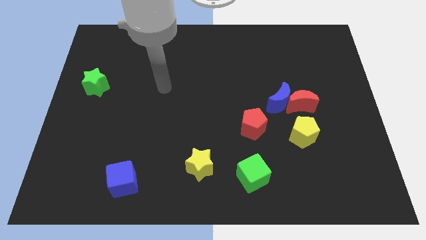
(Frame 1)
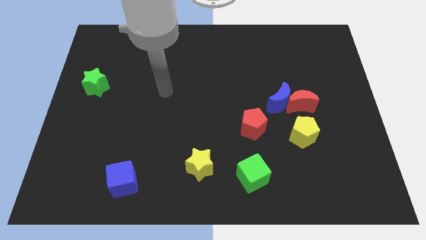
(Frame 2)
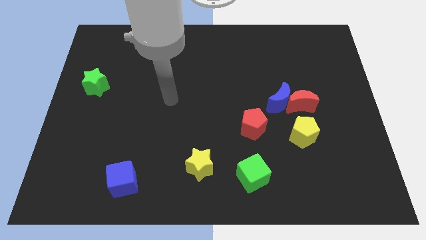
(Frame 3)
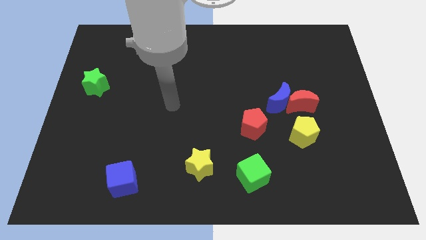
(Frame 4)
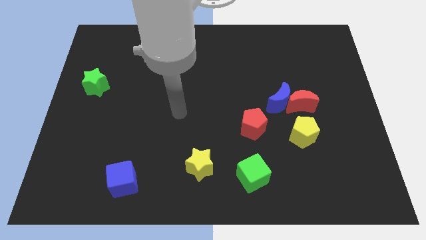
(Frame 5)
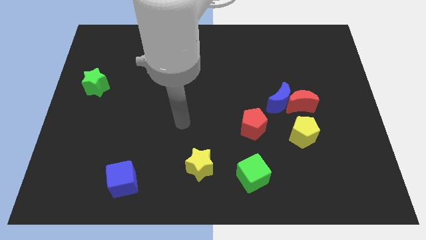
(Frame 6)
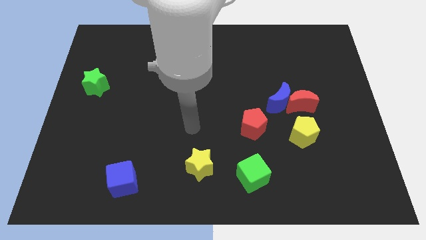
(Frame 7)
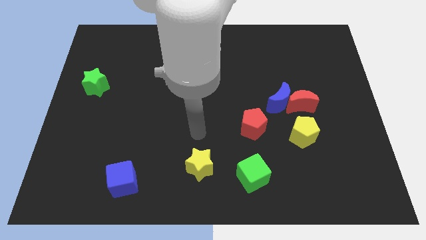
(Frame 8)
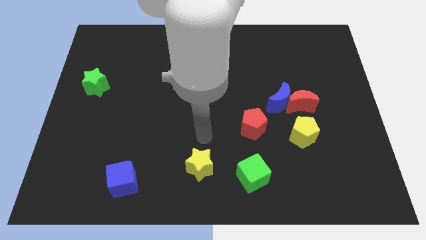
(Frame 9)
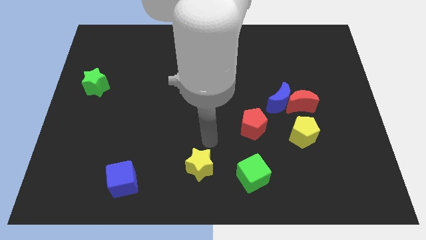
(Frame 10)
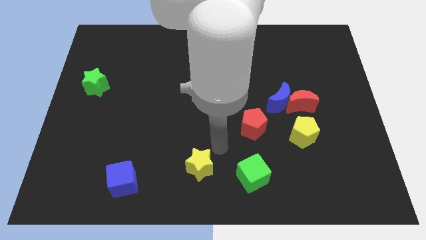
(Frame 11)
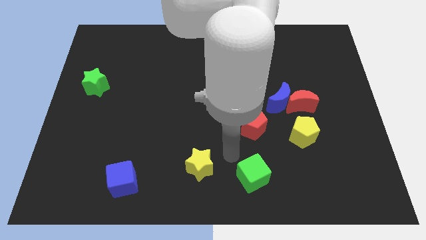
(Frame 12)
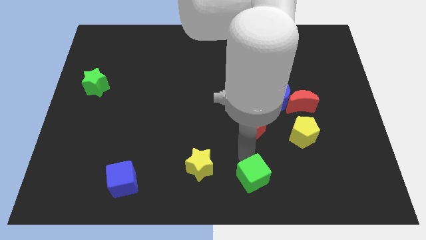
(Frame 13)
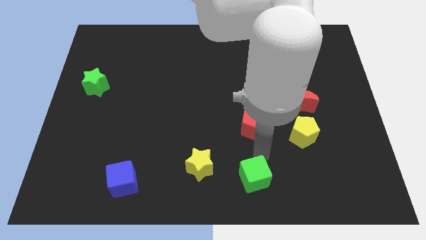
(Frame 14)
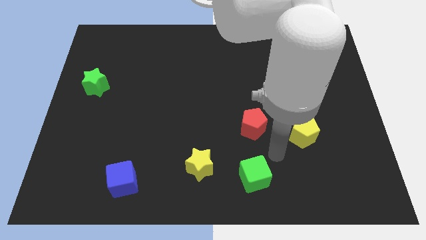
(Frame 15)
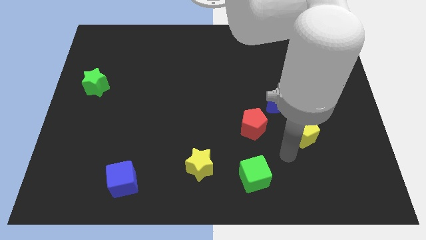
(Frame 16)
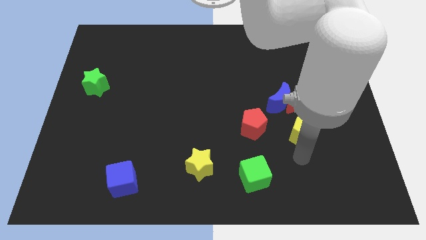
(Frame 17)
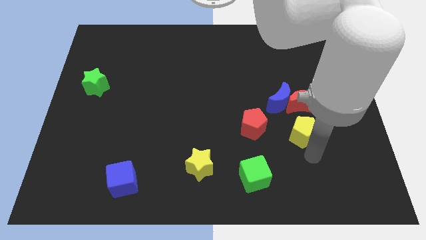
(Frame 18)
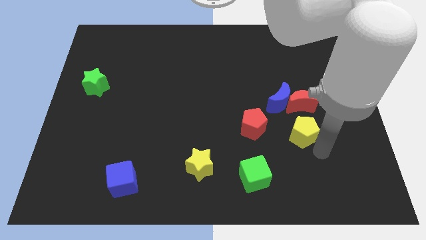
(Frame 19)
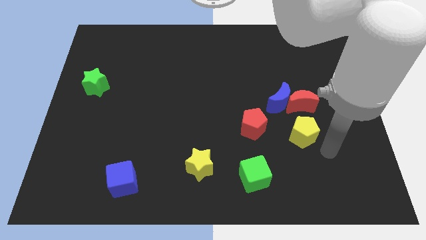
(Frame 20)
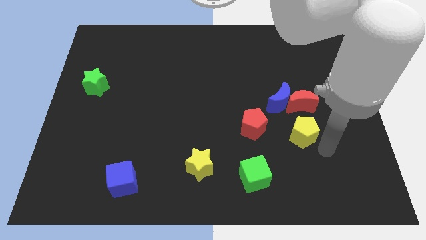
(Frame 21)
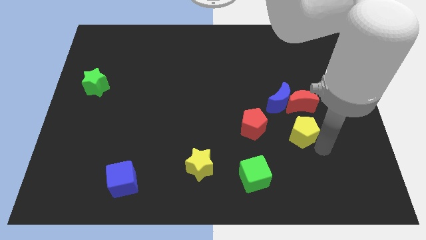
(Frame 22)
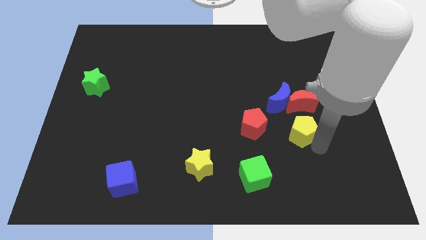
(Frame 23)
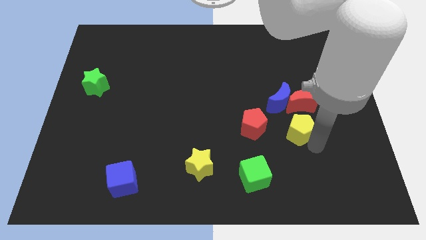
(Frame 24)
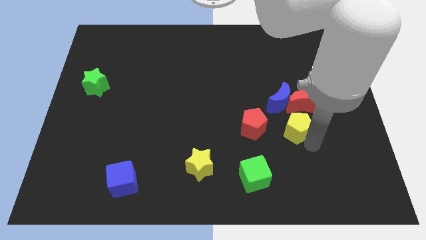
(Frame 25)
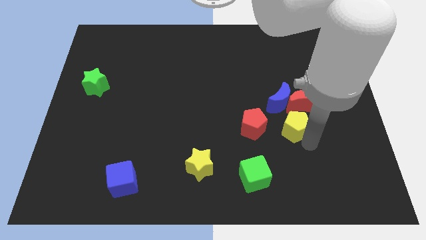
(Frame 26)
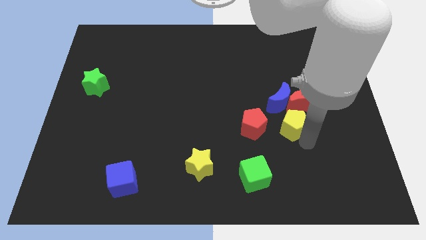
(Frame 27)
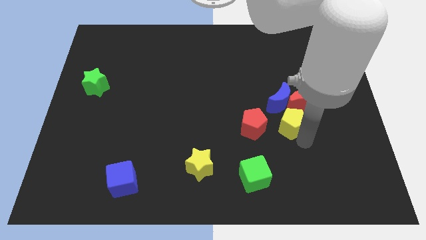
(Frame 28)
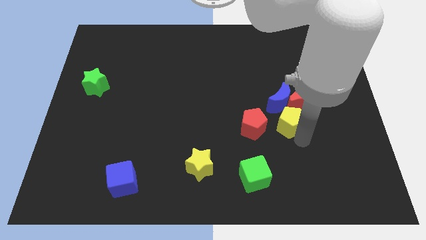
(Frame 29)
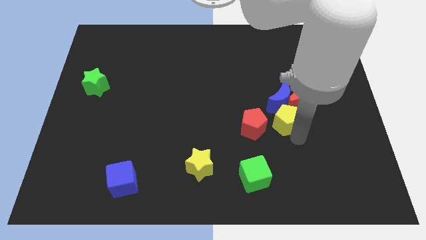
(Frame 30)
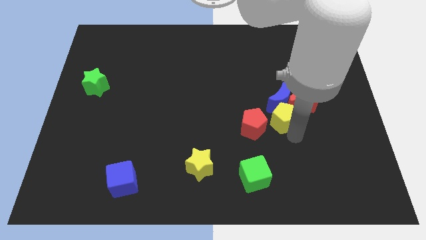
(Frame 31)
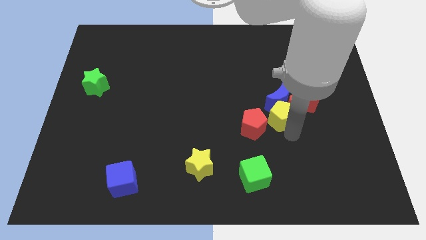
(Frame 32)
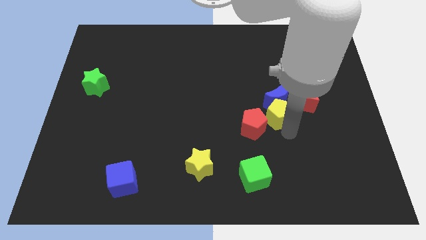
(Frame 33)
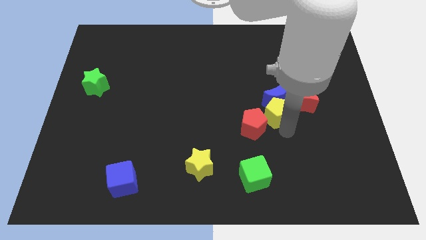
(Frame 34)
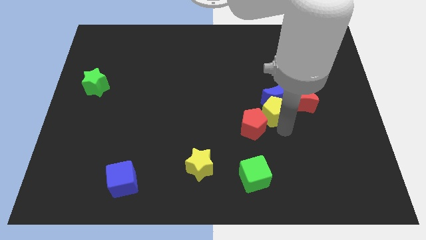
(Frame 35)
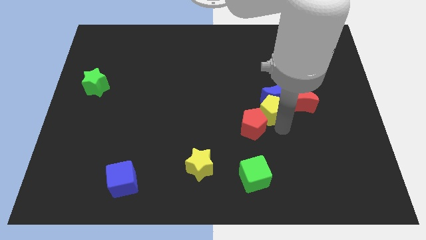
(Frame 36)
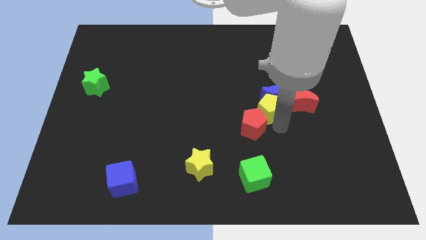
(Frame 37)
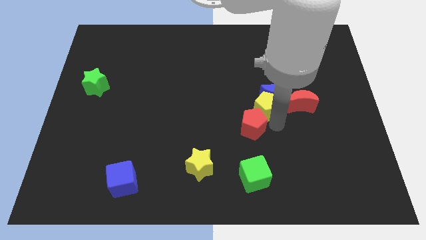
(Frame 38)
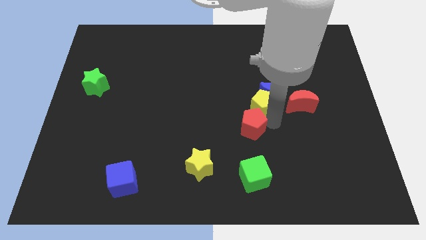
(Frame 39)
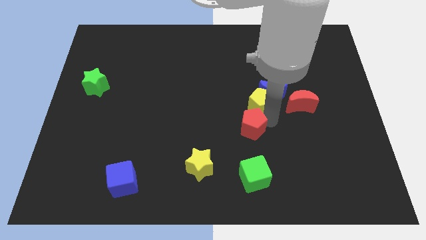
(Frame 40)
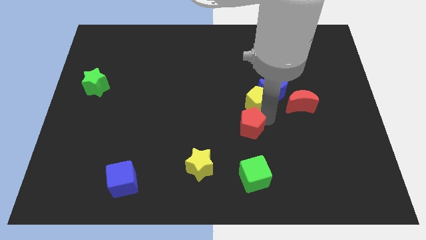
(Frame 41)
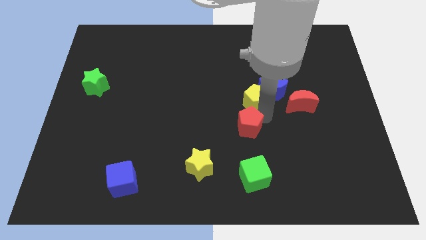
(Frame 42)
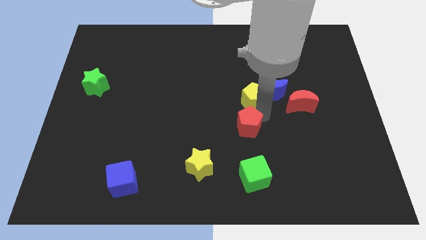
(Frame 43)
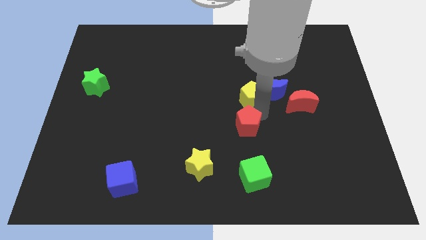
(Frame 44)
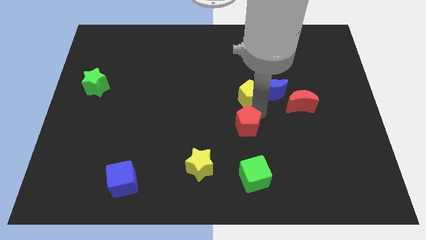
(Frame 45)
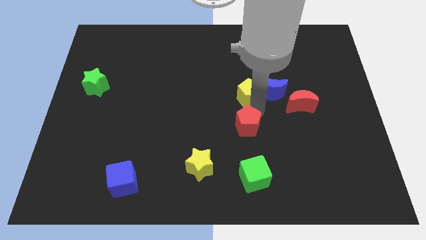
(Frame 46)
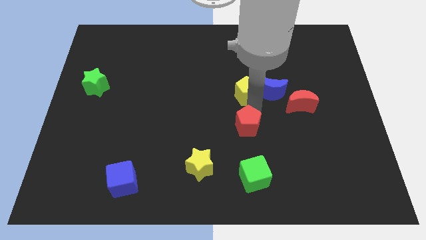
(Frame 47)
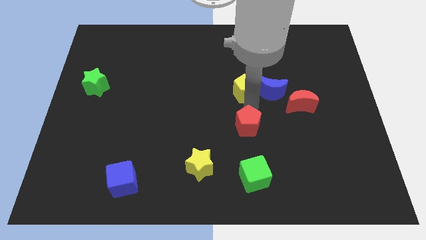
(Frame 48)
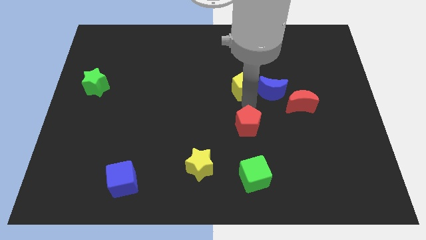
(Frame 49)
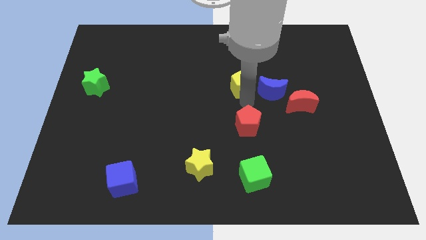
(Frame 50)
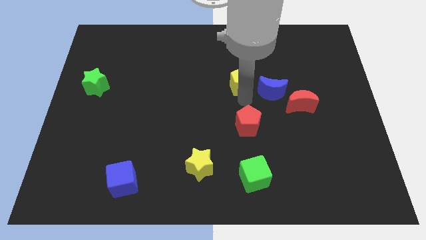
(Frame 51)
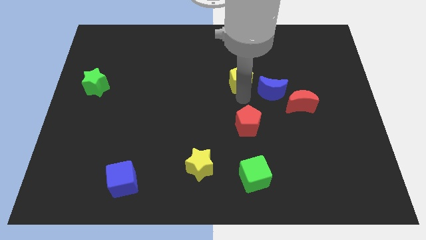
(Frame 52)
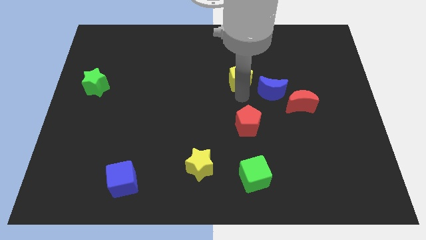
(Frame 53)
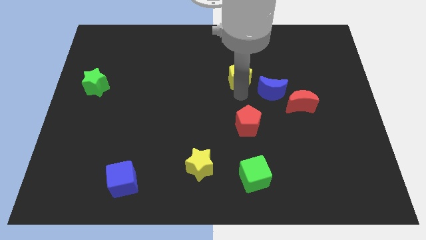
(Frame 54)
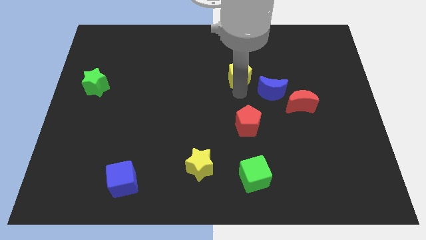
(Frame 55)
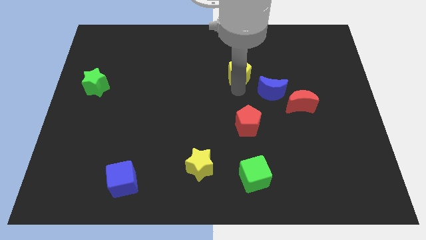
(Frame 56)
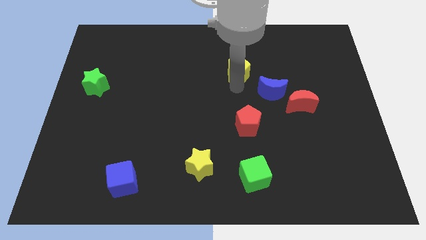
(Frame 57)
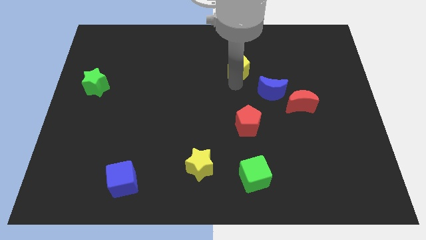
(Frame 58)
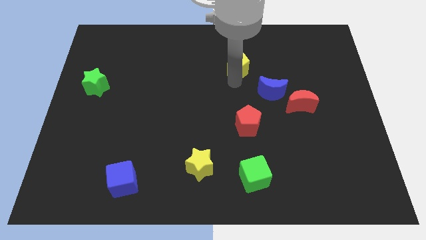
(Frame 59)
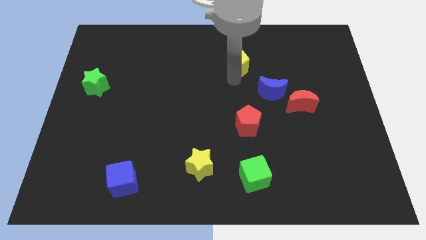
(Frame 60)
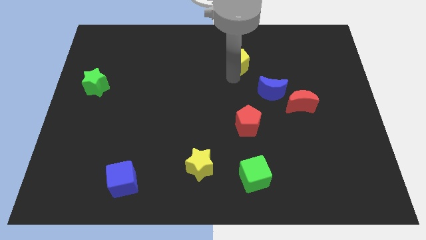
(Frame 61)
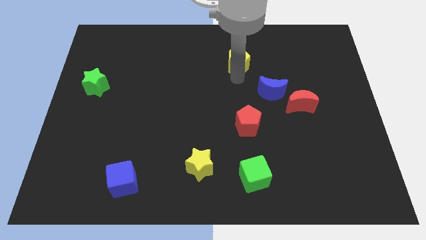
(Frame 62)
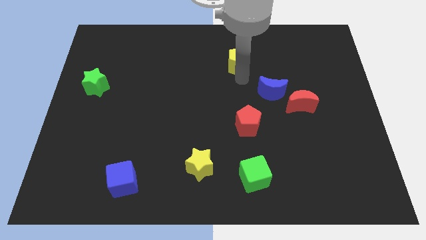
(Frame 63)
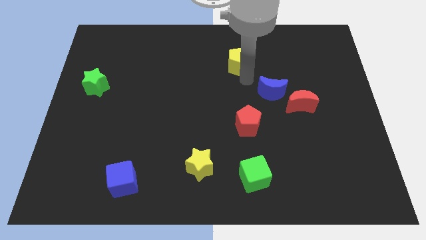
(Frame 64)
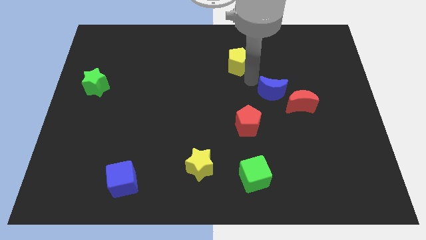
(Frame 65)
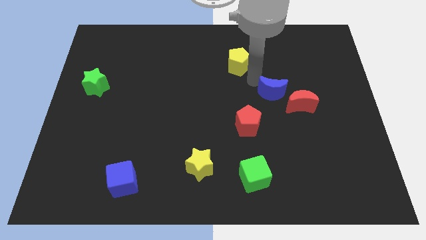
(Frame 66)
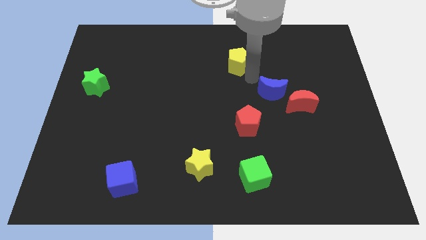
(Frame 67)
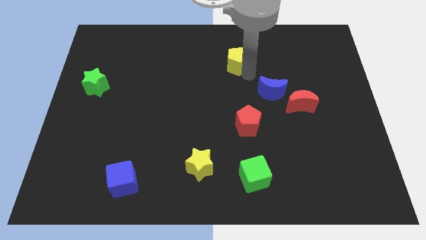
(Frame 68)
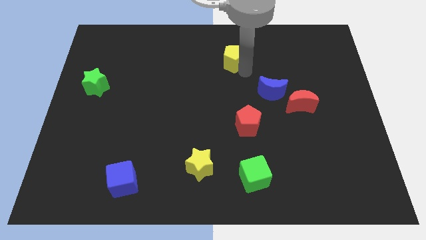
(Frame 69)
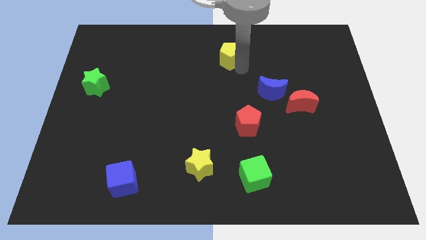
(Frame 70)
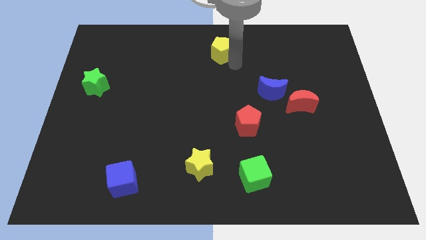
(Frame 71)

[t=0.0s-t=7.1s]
slide the yellow pentagon to the top

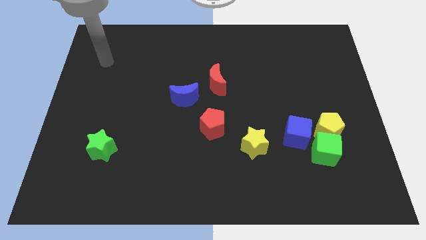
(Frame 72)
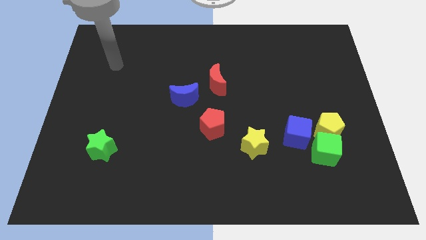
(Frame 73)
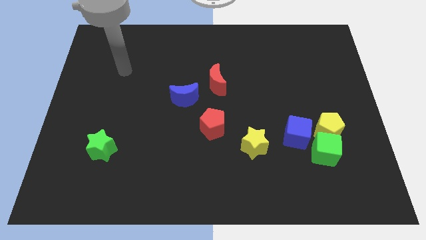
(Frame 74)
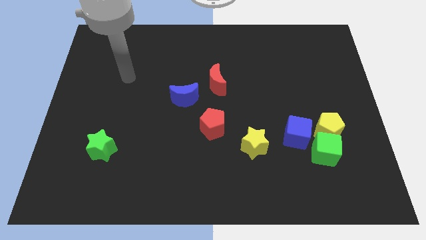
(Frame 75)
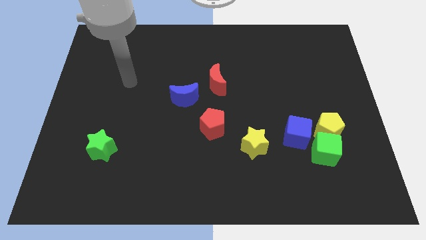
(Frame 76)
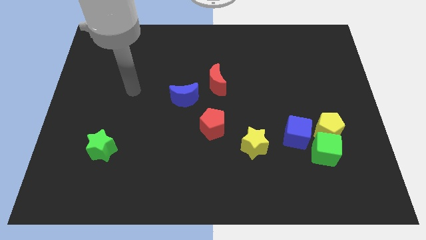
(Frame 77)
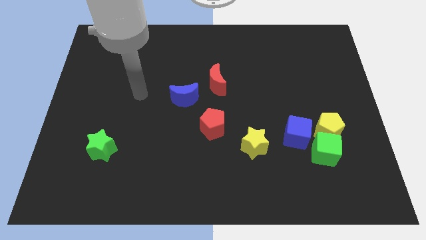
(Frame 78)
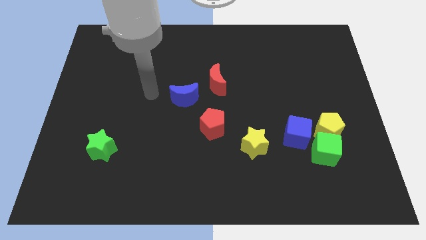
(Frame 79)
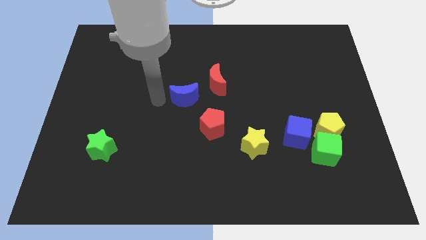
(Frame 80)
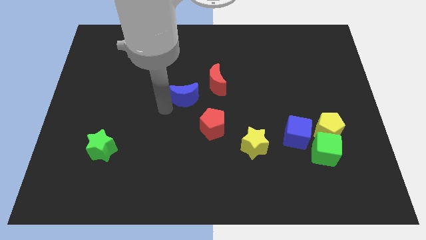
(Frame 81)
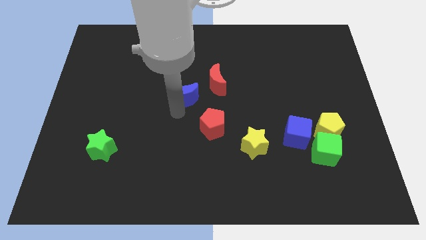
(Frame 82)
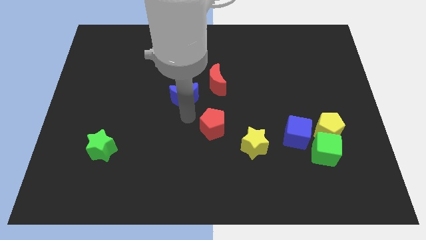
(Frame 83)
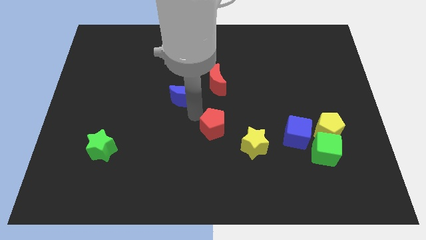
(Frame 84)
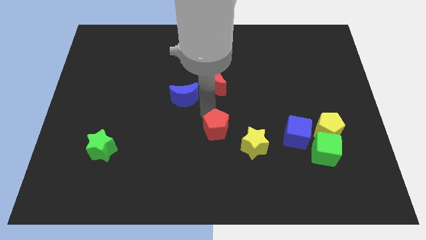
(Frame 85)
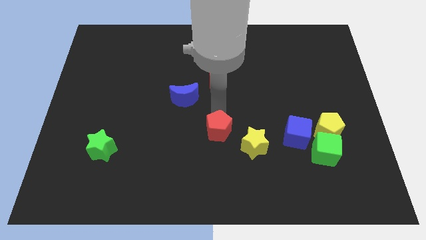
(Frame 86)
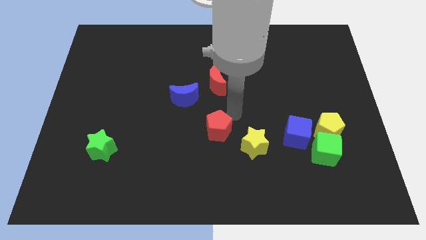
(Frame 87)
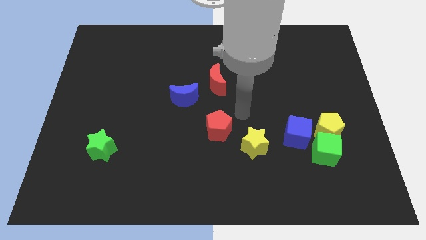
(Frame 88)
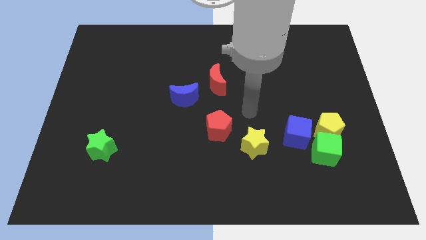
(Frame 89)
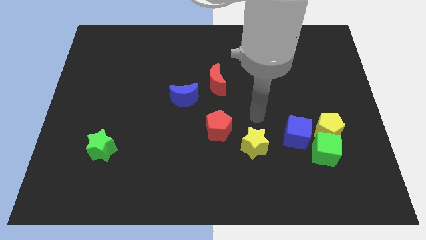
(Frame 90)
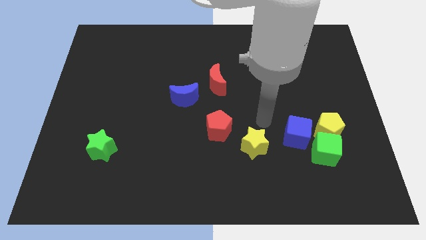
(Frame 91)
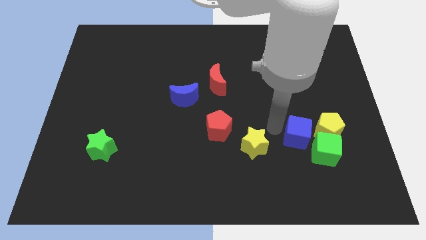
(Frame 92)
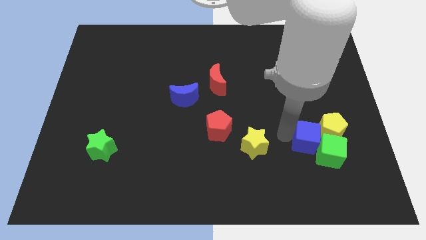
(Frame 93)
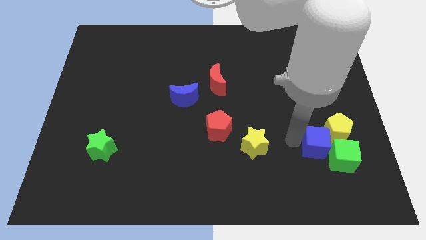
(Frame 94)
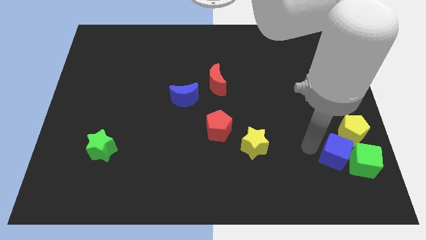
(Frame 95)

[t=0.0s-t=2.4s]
put the yellow pentagon to the right side of the board
